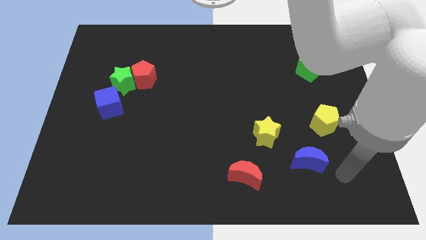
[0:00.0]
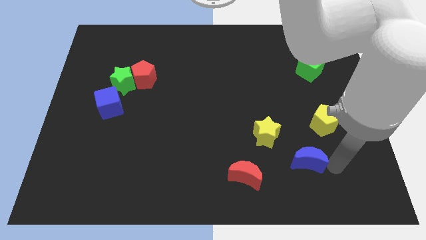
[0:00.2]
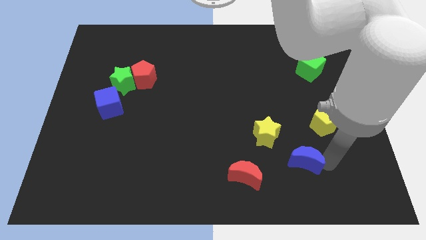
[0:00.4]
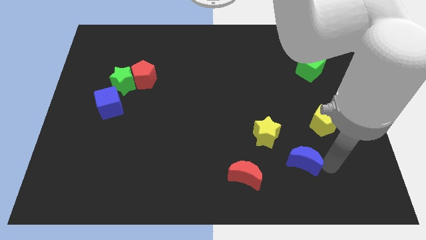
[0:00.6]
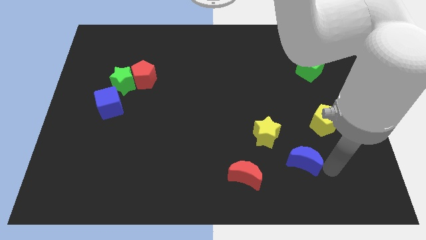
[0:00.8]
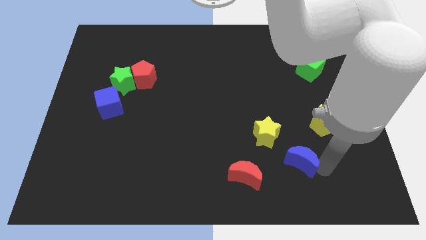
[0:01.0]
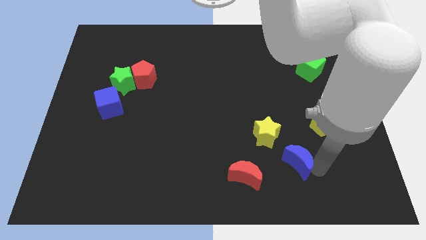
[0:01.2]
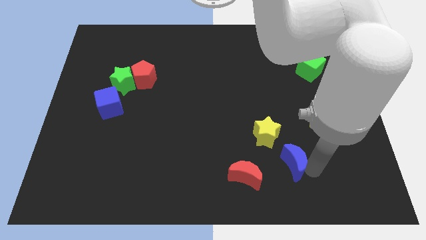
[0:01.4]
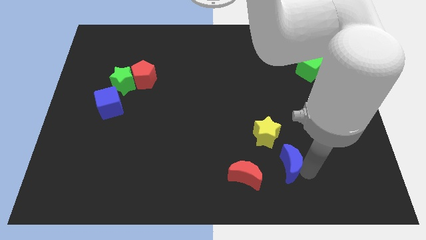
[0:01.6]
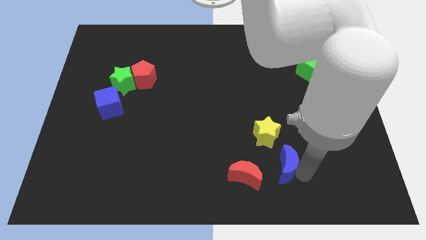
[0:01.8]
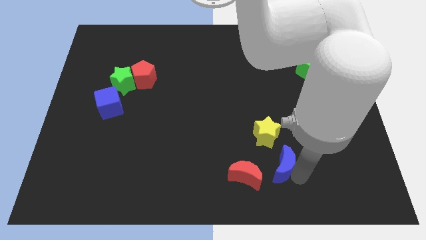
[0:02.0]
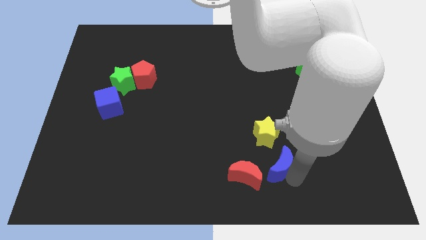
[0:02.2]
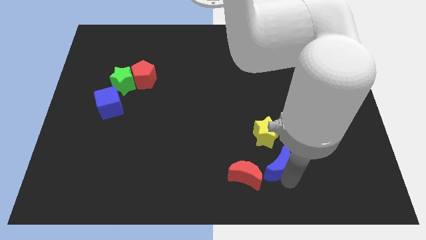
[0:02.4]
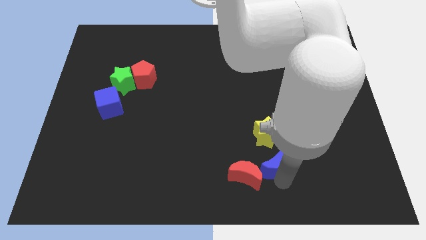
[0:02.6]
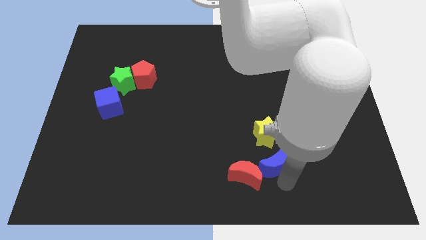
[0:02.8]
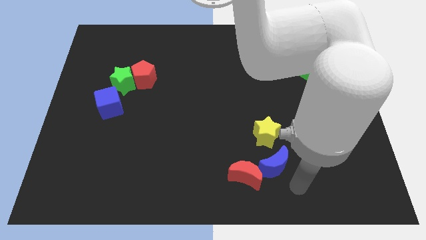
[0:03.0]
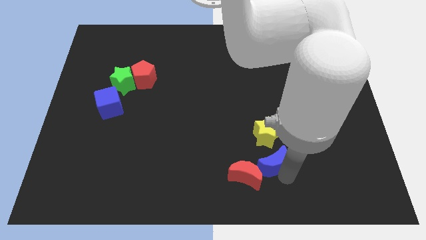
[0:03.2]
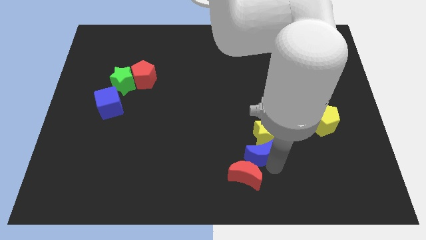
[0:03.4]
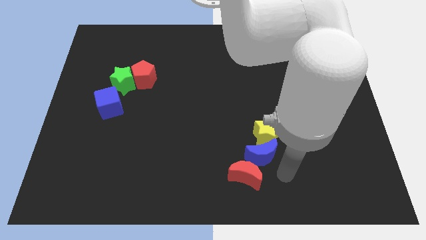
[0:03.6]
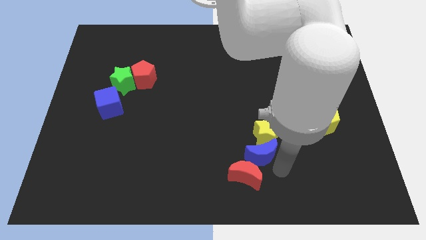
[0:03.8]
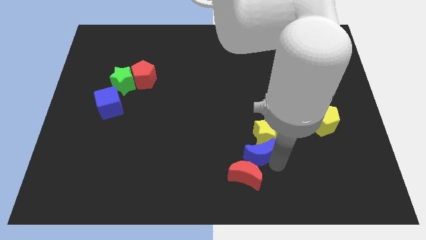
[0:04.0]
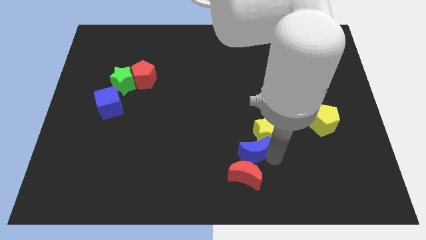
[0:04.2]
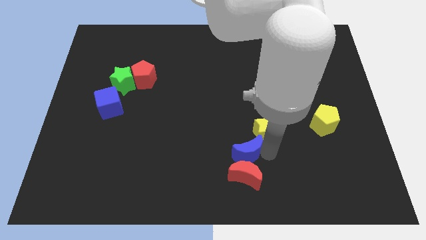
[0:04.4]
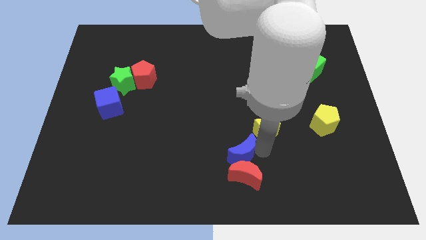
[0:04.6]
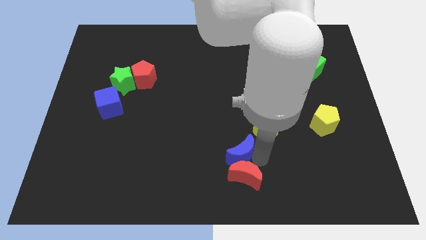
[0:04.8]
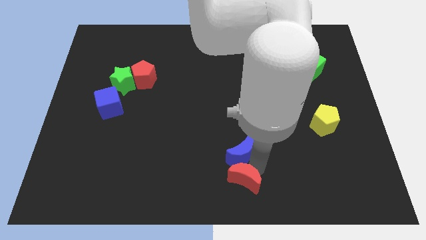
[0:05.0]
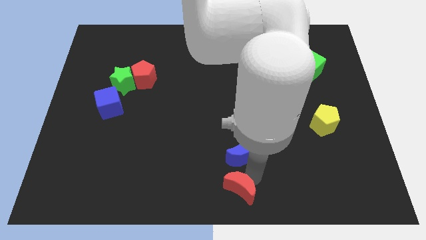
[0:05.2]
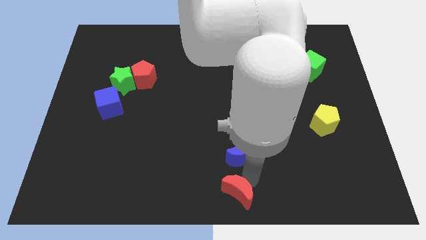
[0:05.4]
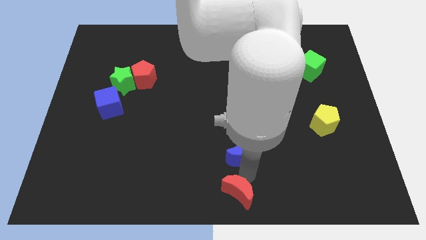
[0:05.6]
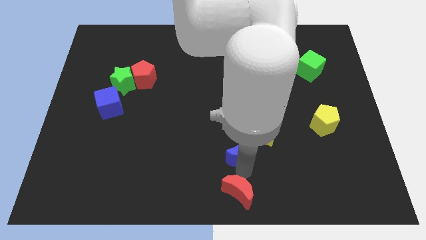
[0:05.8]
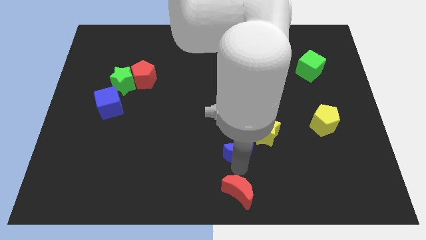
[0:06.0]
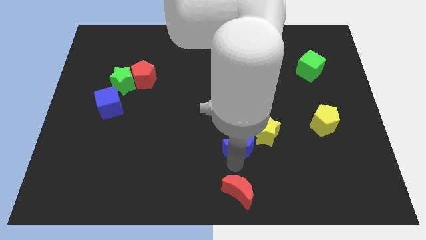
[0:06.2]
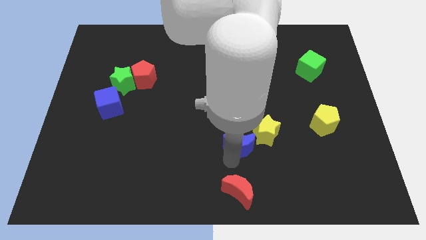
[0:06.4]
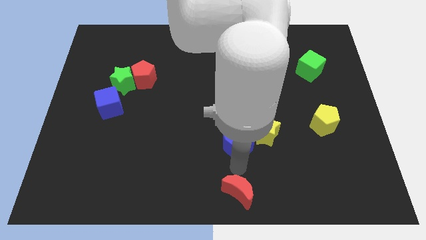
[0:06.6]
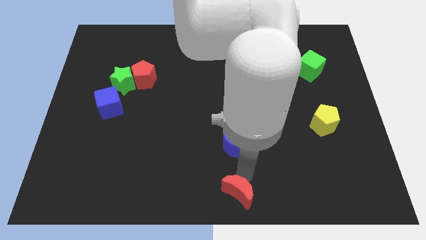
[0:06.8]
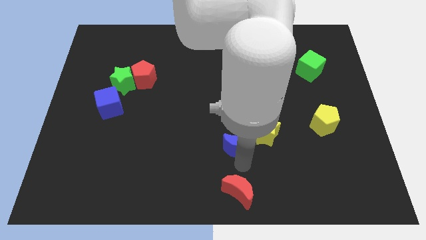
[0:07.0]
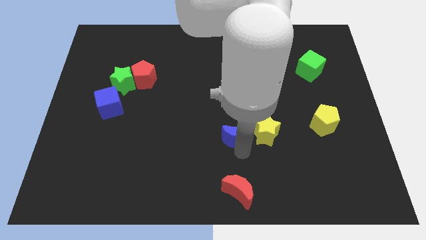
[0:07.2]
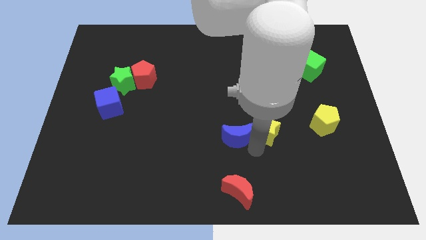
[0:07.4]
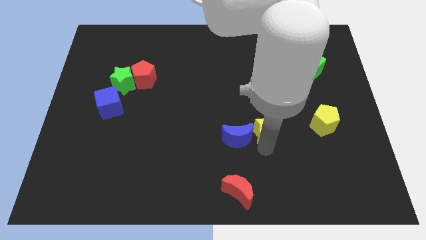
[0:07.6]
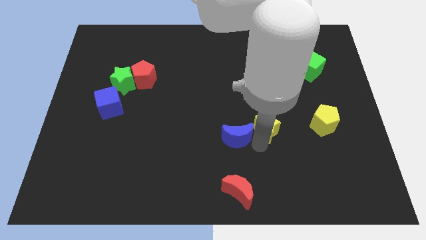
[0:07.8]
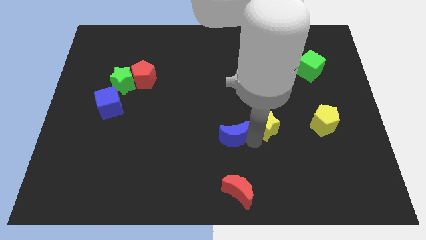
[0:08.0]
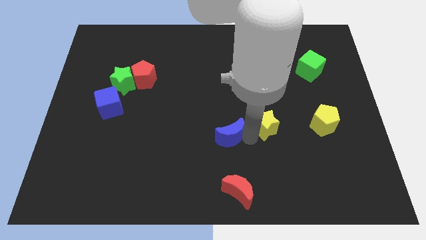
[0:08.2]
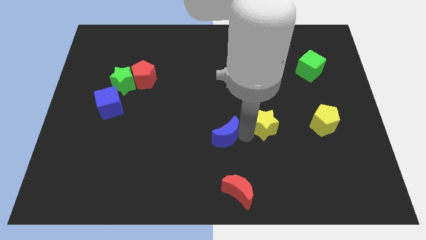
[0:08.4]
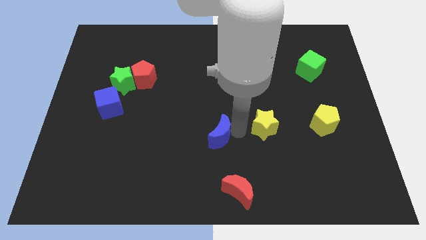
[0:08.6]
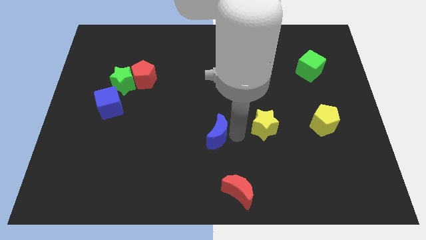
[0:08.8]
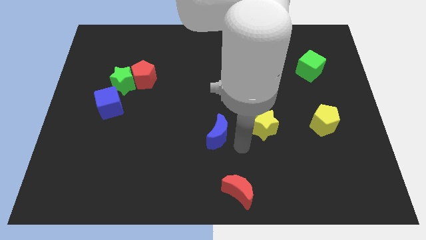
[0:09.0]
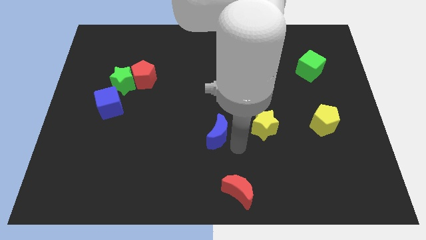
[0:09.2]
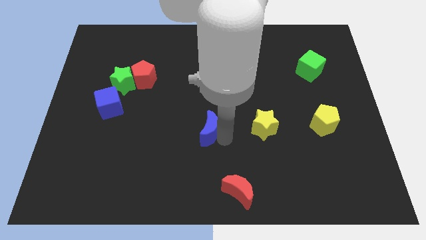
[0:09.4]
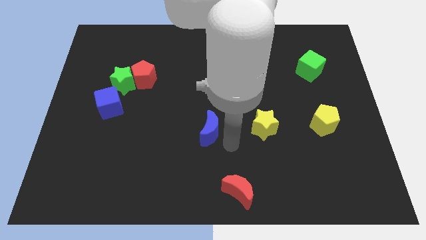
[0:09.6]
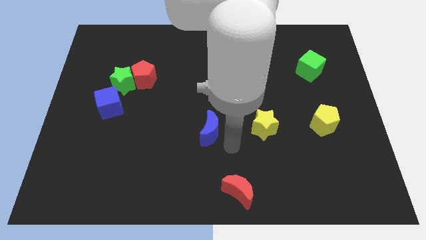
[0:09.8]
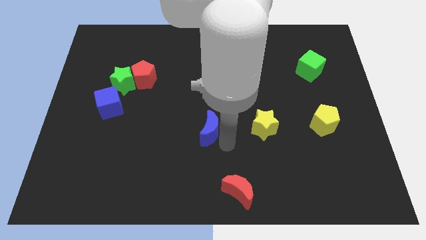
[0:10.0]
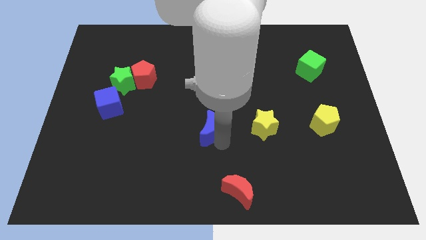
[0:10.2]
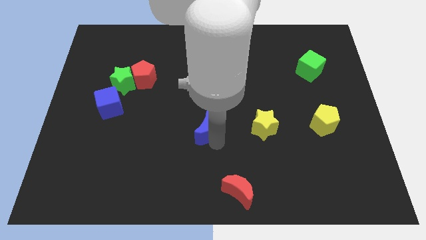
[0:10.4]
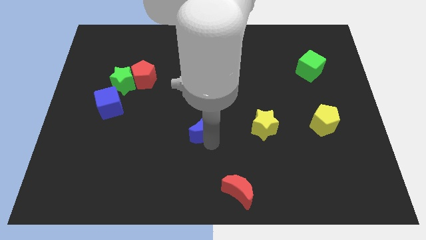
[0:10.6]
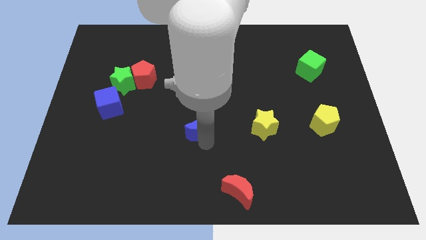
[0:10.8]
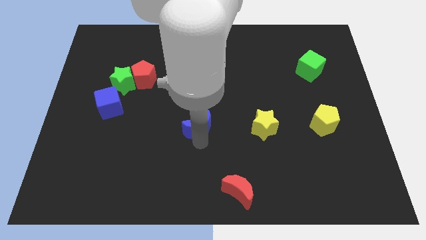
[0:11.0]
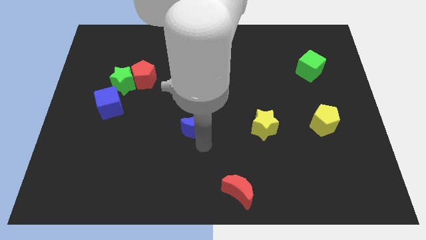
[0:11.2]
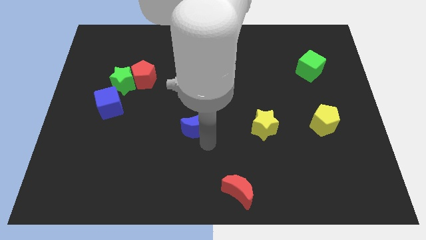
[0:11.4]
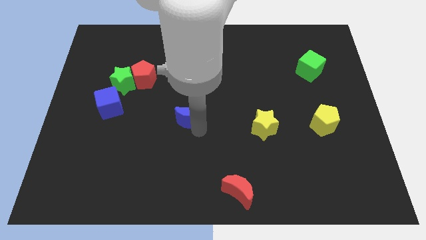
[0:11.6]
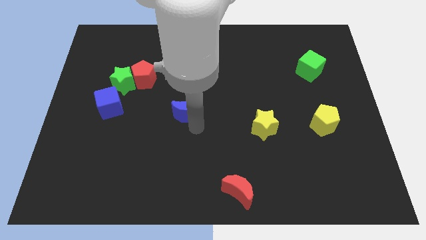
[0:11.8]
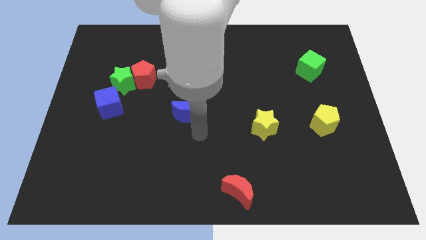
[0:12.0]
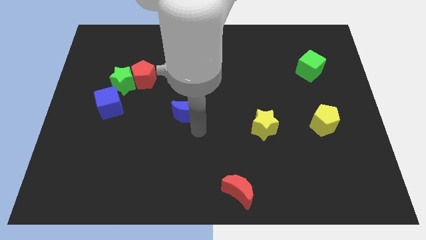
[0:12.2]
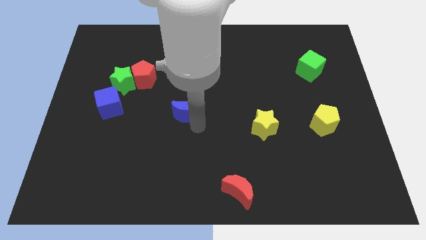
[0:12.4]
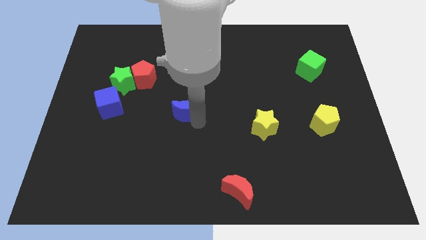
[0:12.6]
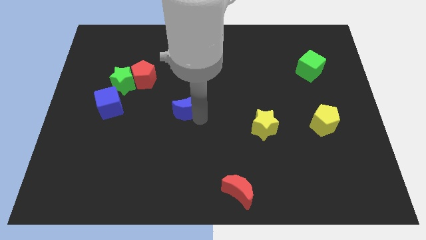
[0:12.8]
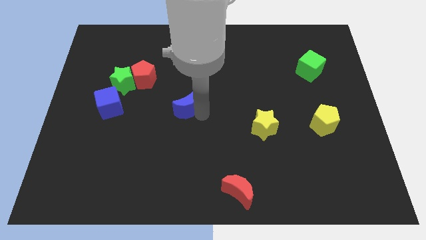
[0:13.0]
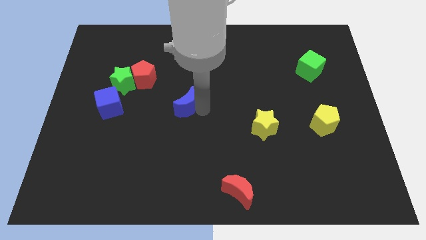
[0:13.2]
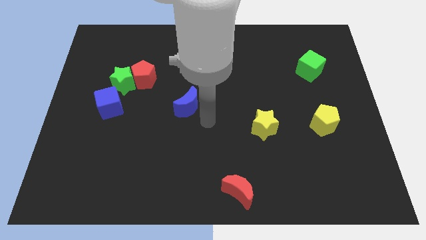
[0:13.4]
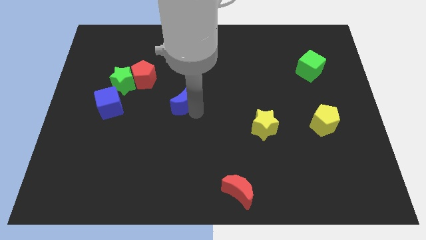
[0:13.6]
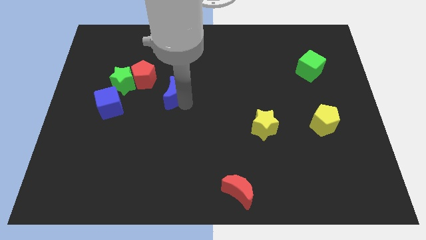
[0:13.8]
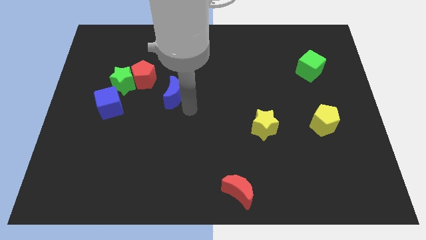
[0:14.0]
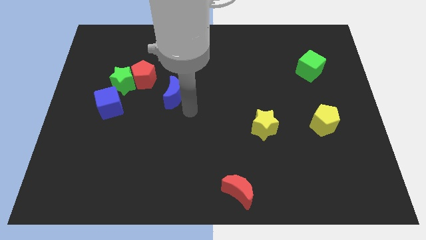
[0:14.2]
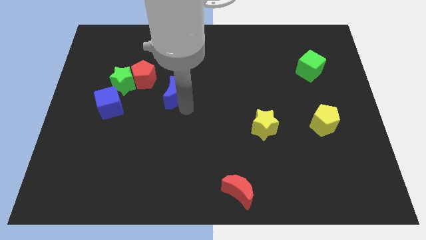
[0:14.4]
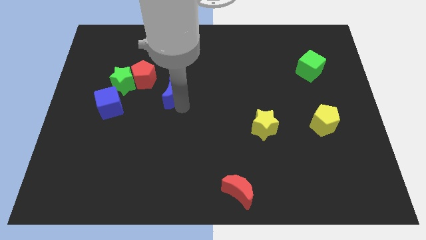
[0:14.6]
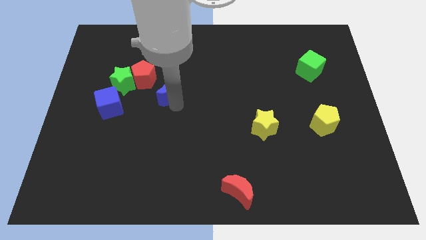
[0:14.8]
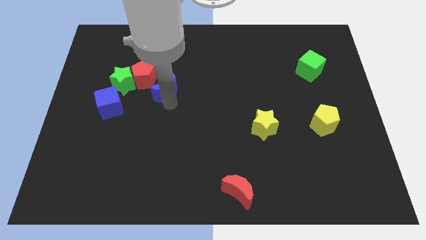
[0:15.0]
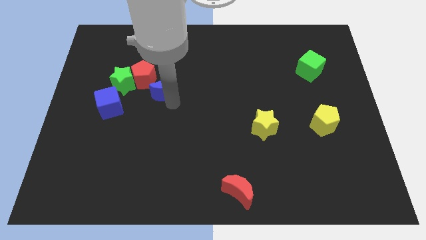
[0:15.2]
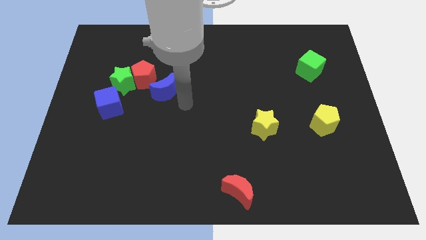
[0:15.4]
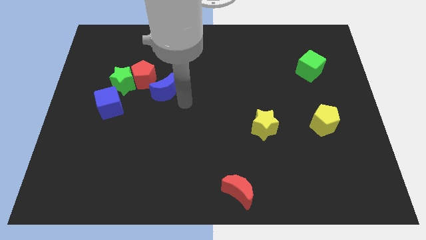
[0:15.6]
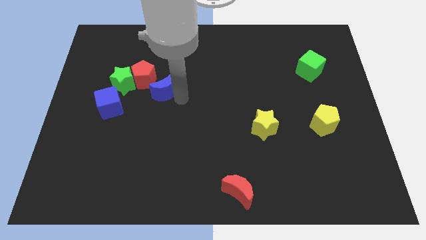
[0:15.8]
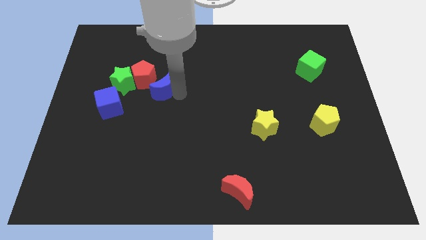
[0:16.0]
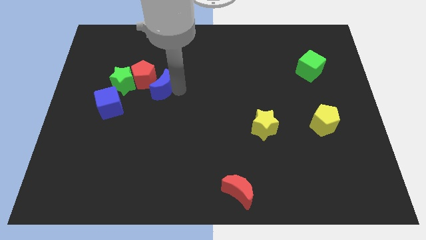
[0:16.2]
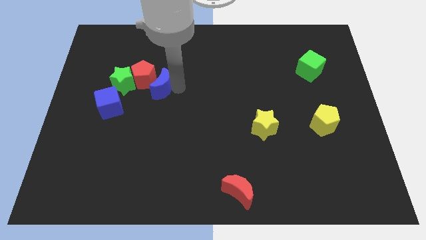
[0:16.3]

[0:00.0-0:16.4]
put the blue moon to the red pentagon
